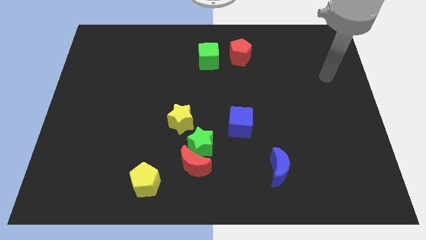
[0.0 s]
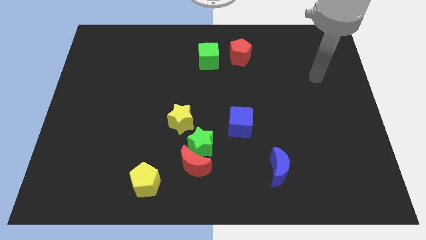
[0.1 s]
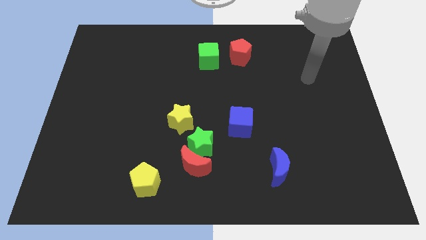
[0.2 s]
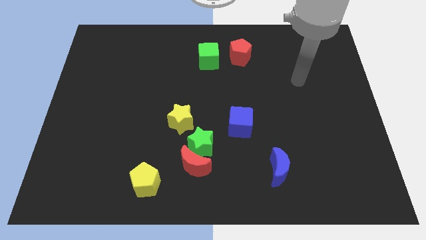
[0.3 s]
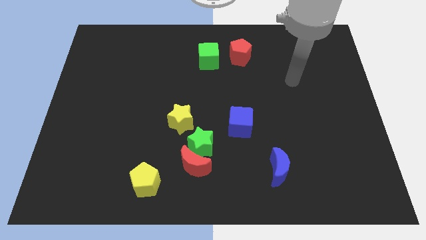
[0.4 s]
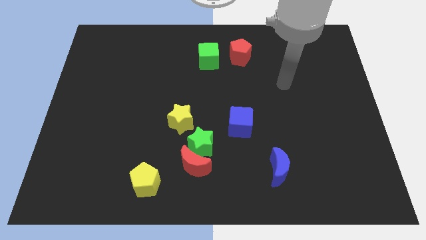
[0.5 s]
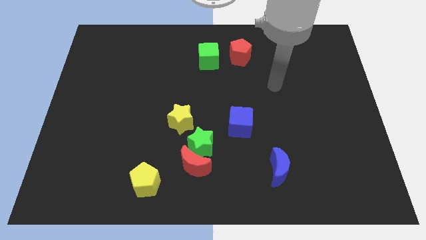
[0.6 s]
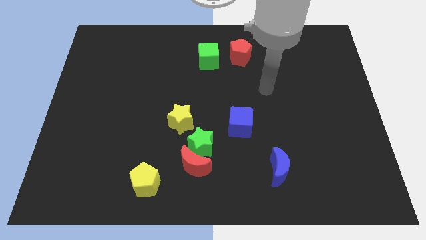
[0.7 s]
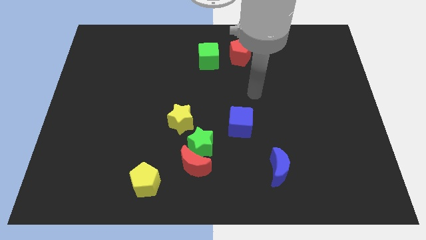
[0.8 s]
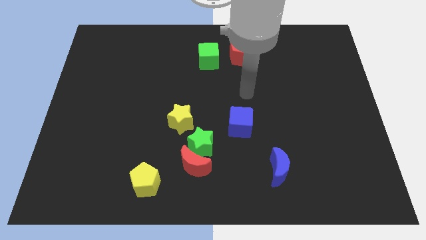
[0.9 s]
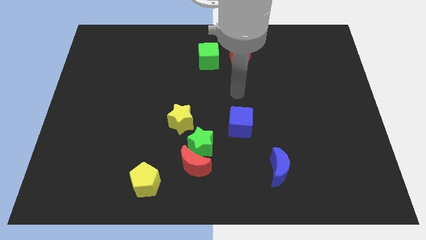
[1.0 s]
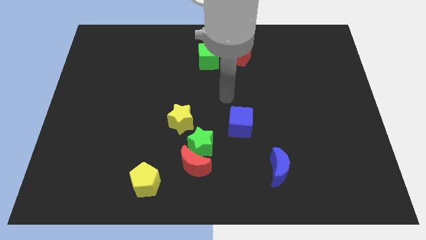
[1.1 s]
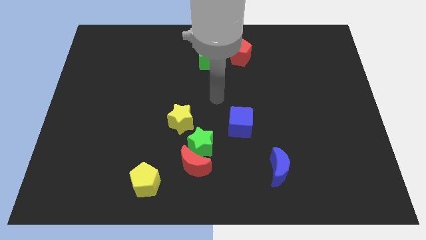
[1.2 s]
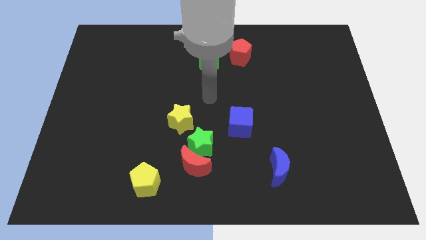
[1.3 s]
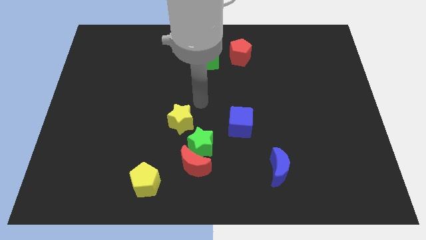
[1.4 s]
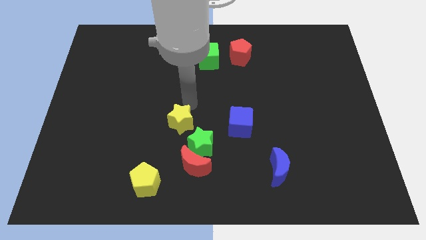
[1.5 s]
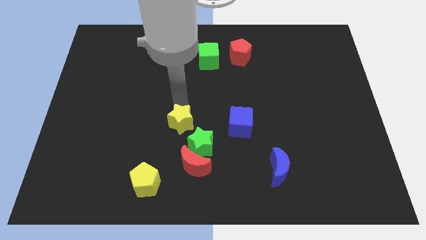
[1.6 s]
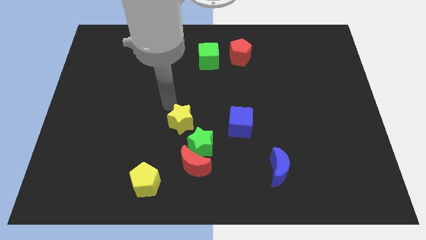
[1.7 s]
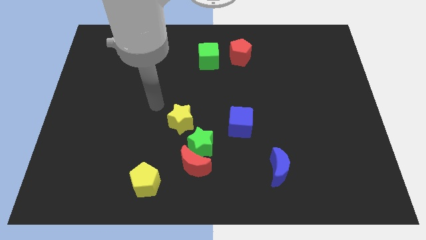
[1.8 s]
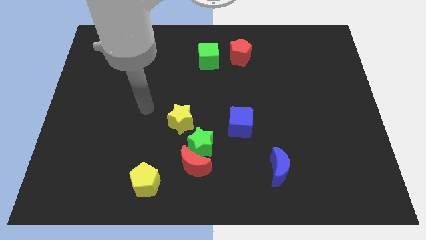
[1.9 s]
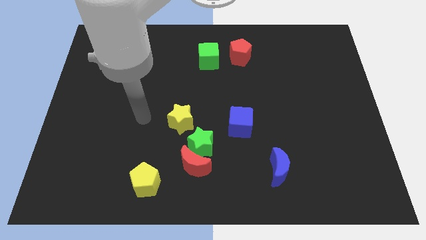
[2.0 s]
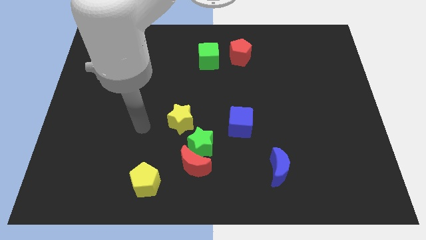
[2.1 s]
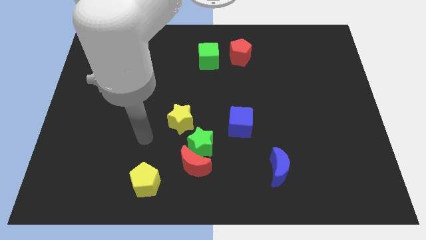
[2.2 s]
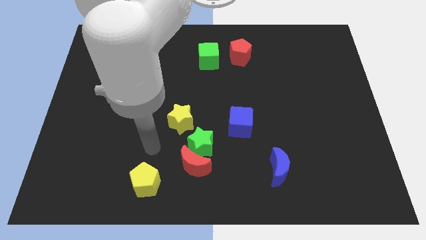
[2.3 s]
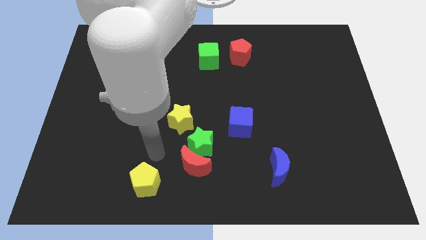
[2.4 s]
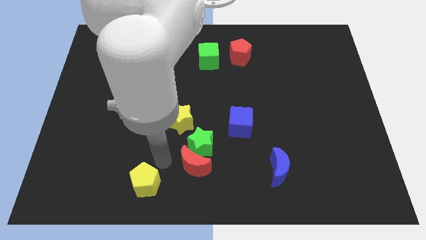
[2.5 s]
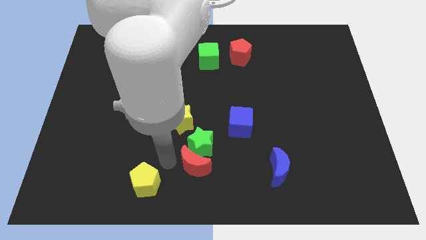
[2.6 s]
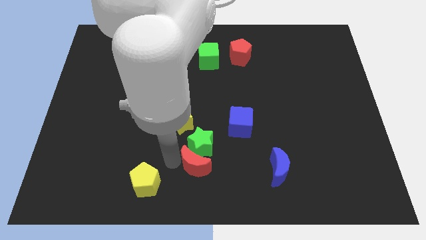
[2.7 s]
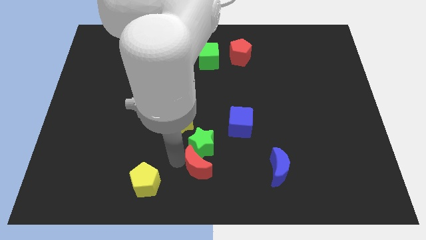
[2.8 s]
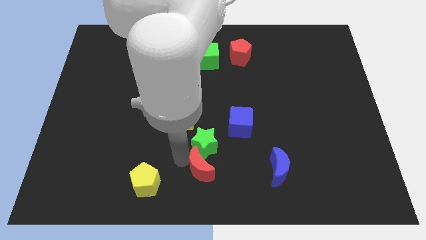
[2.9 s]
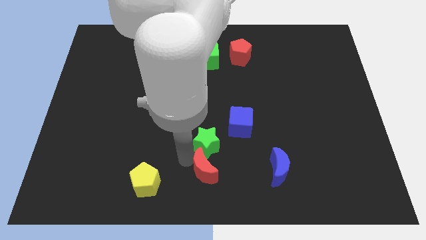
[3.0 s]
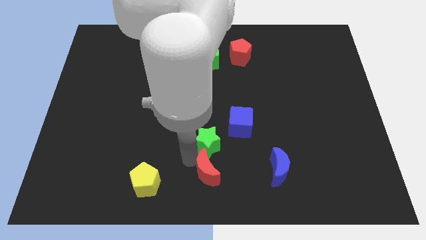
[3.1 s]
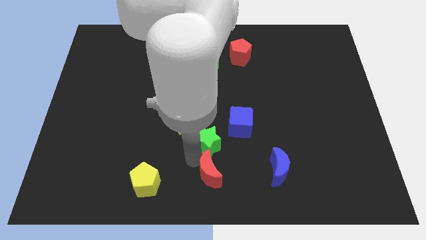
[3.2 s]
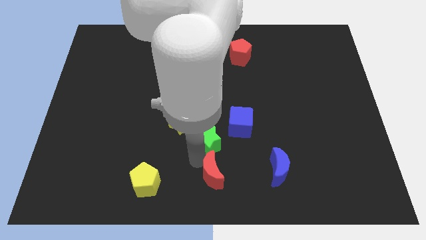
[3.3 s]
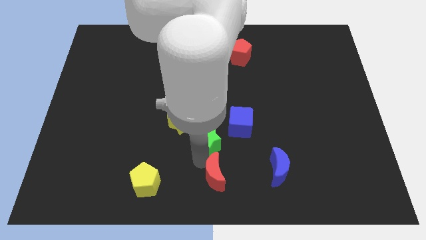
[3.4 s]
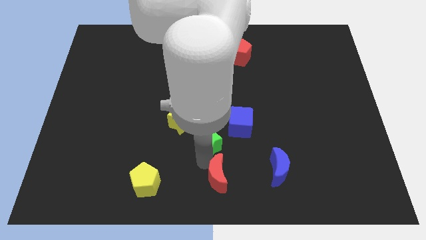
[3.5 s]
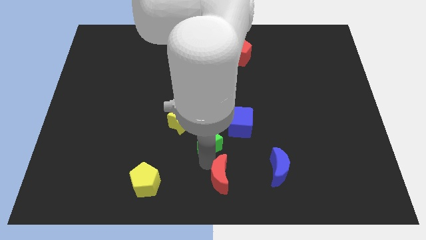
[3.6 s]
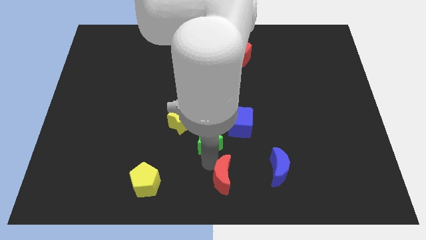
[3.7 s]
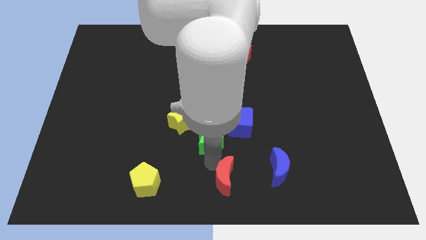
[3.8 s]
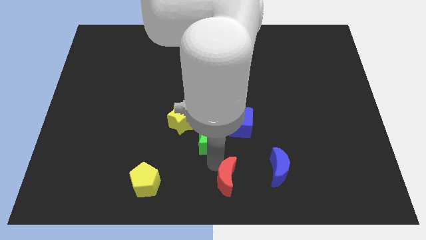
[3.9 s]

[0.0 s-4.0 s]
separate the red moon from the green star and yellow pentagon

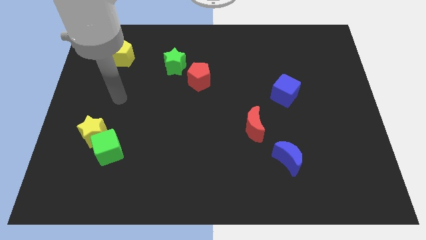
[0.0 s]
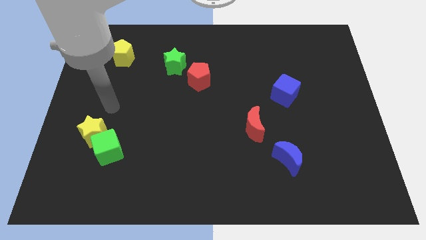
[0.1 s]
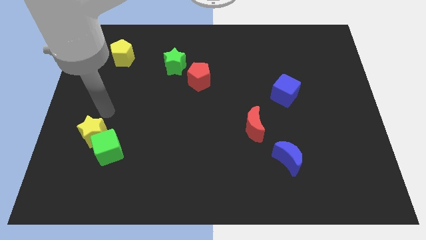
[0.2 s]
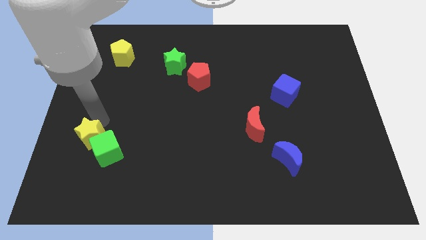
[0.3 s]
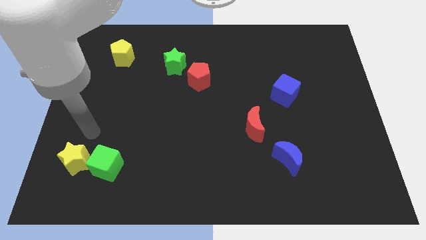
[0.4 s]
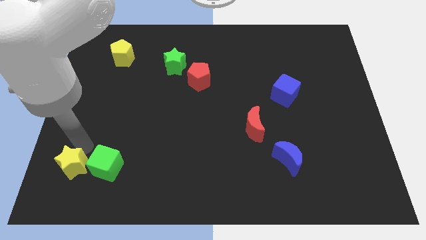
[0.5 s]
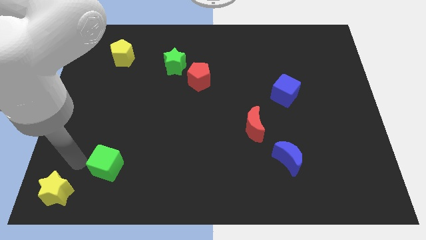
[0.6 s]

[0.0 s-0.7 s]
separate the green cube from the yellow star

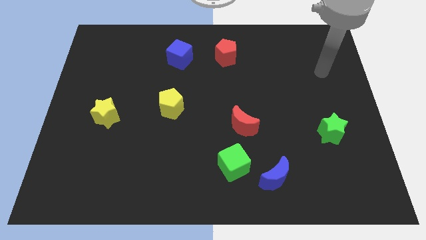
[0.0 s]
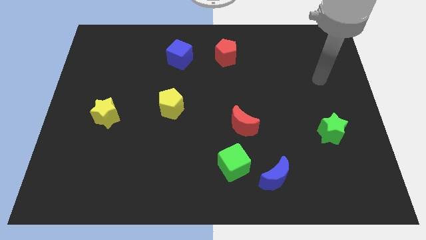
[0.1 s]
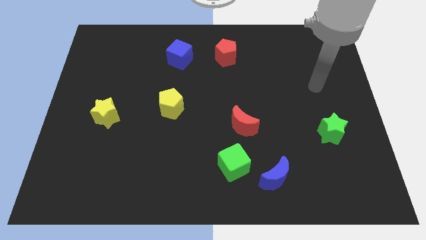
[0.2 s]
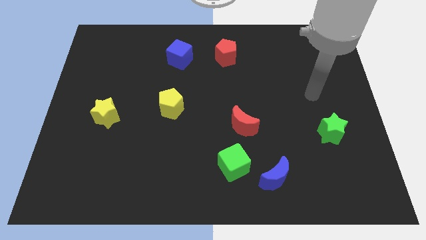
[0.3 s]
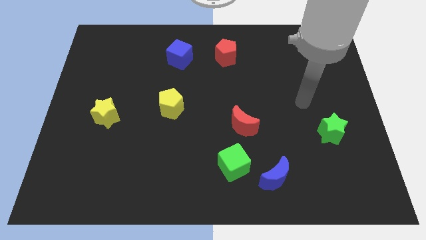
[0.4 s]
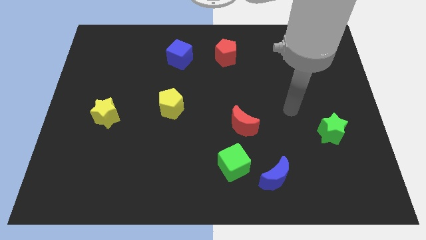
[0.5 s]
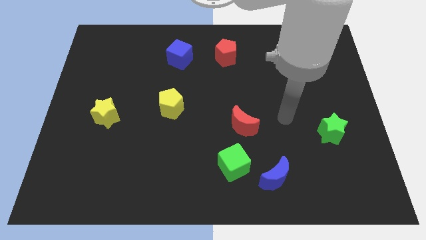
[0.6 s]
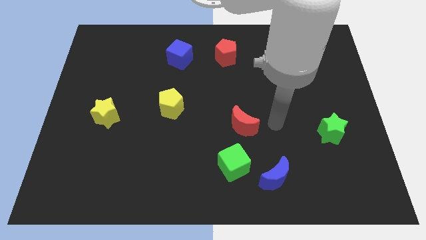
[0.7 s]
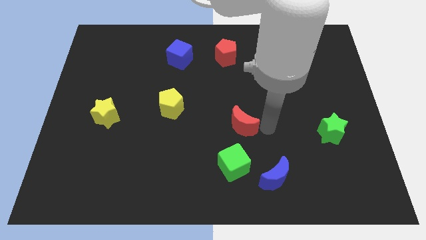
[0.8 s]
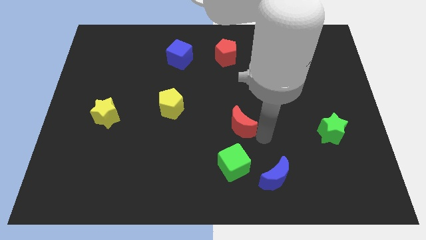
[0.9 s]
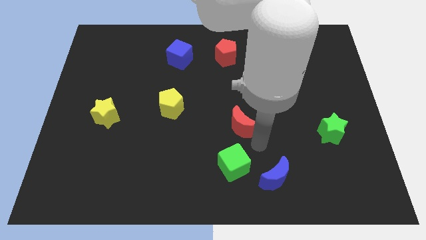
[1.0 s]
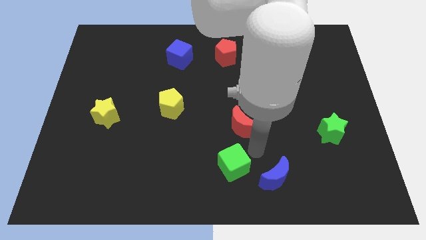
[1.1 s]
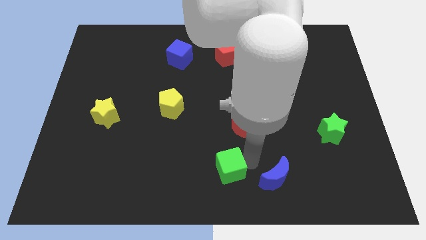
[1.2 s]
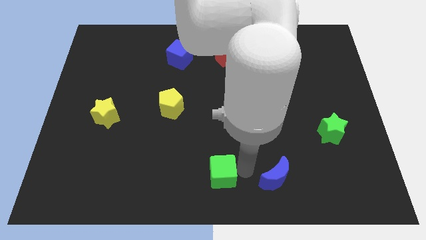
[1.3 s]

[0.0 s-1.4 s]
separate the blue moon from the green cube

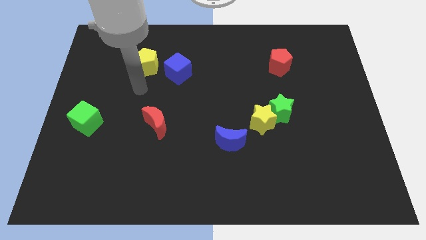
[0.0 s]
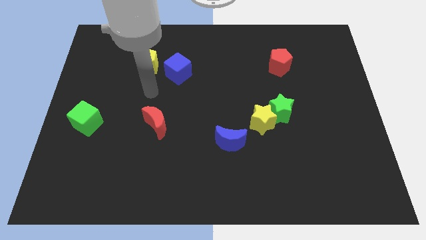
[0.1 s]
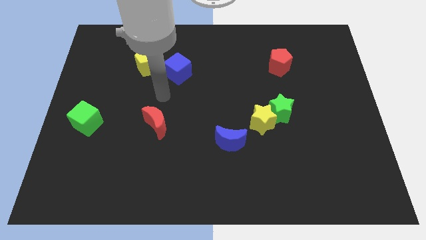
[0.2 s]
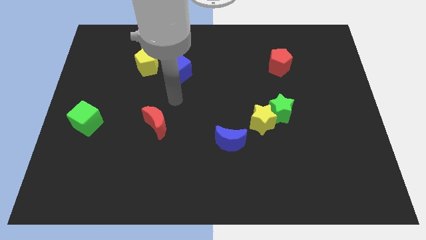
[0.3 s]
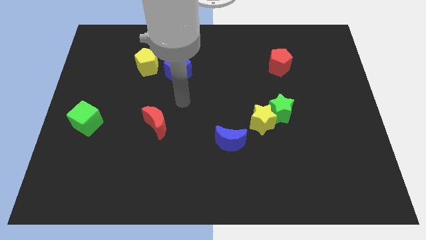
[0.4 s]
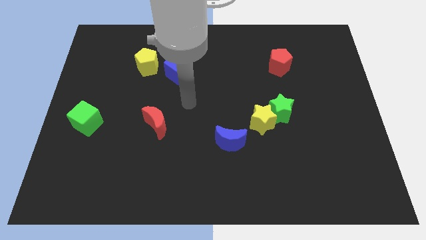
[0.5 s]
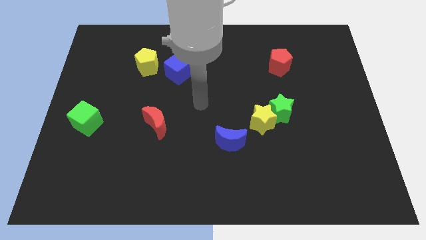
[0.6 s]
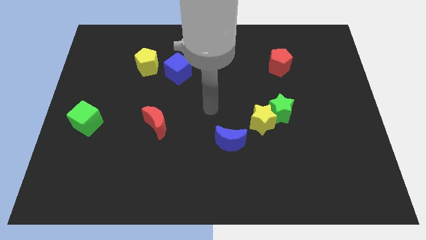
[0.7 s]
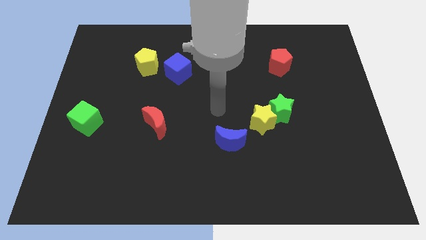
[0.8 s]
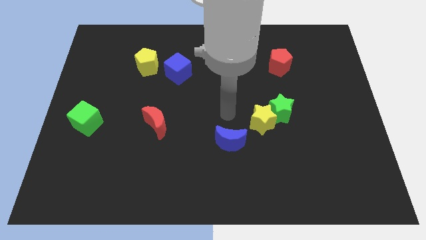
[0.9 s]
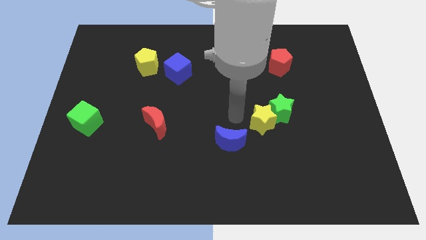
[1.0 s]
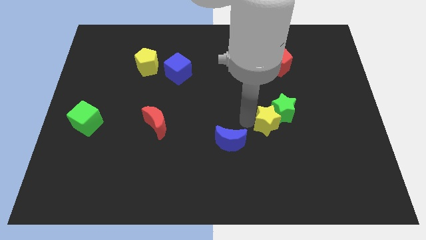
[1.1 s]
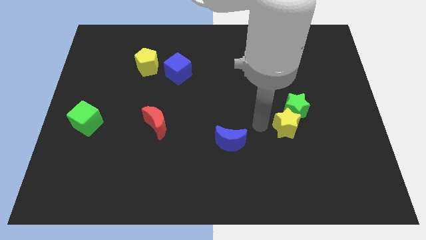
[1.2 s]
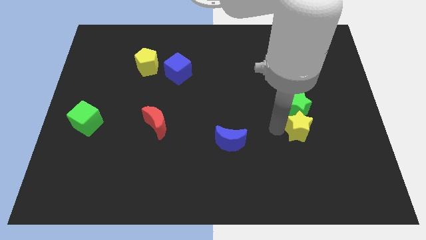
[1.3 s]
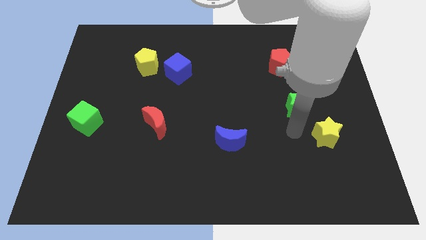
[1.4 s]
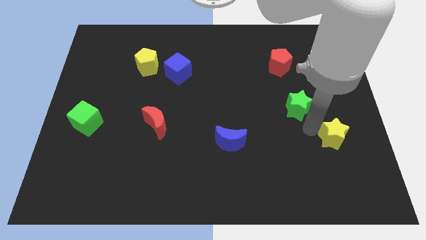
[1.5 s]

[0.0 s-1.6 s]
separate the green star from the yellow star

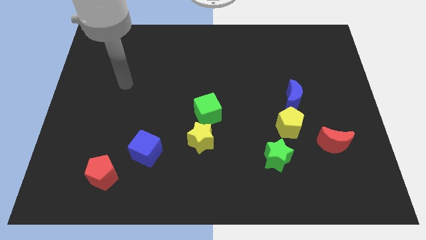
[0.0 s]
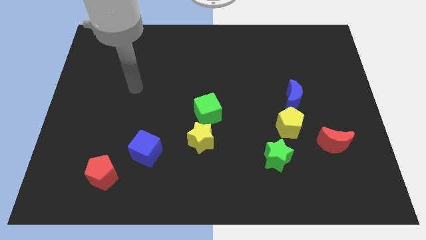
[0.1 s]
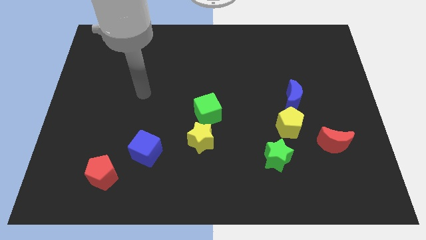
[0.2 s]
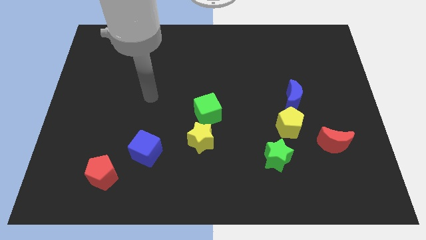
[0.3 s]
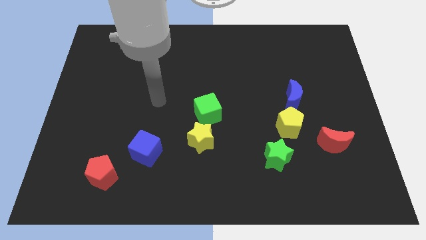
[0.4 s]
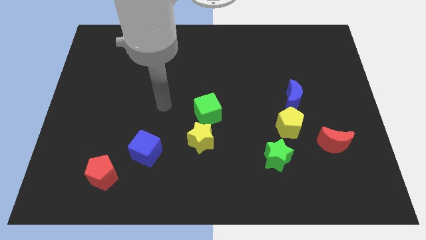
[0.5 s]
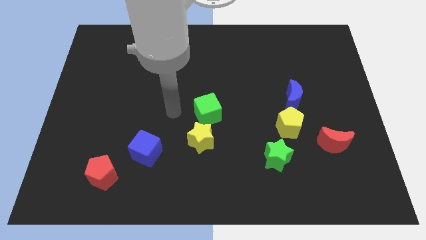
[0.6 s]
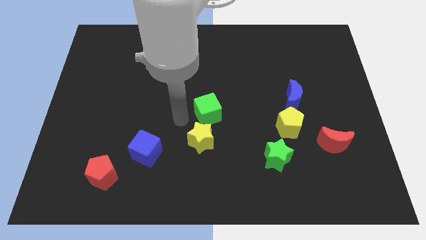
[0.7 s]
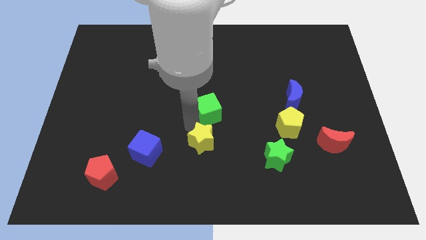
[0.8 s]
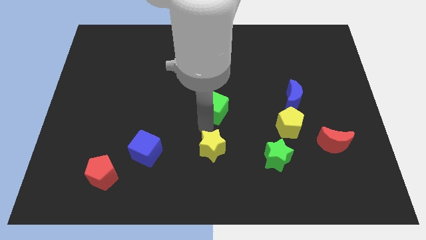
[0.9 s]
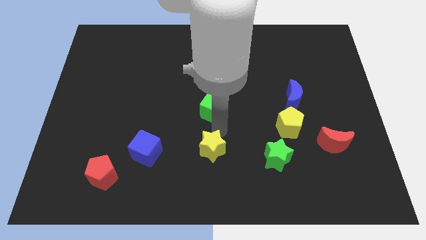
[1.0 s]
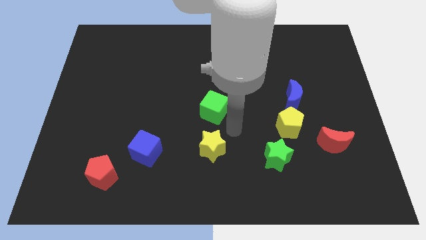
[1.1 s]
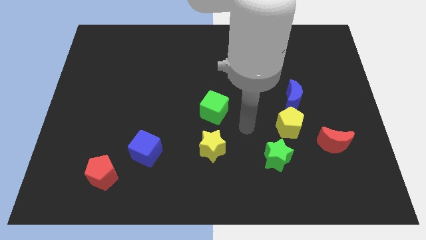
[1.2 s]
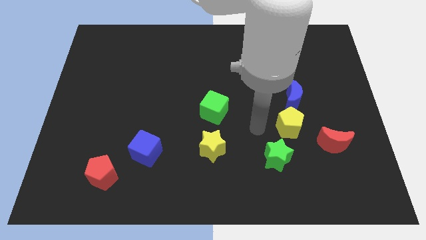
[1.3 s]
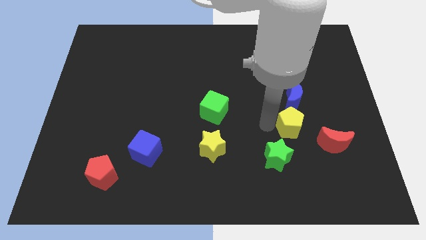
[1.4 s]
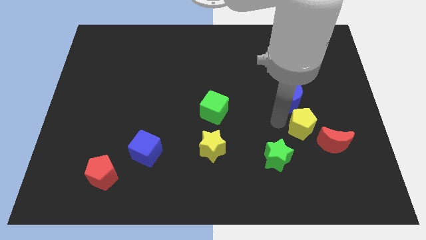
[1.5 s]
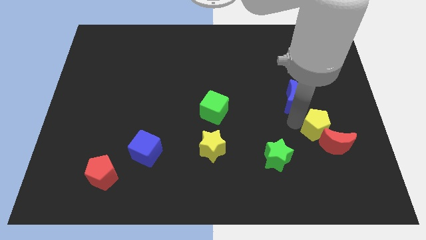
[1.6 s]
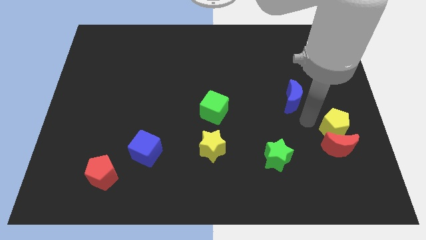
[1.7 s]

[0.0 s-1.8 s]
move the blue moon away from the yellow pentagon
